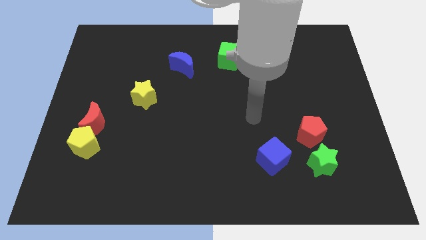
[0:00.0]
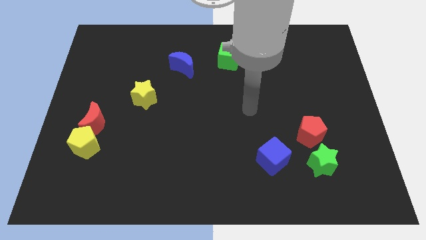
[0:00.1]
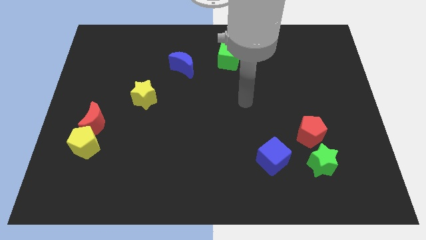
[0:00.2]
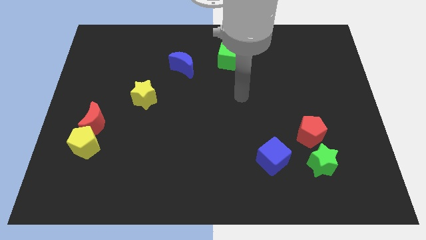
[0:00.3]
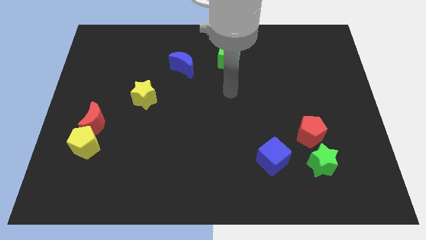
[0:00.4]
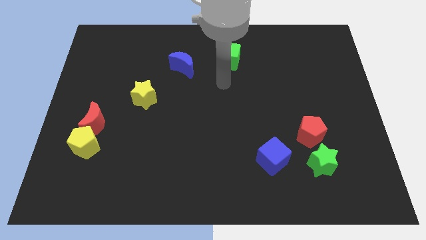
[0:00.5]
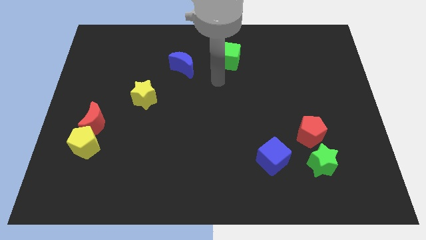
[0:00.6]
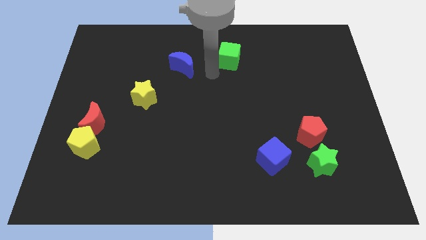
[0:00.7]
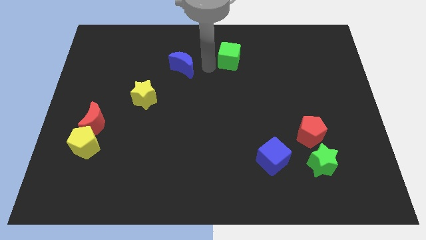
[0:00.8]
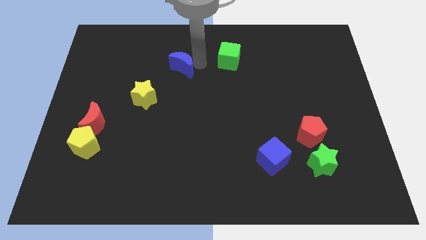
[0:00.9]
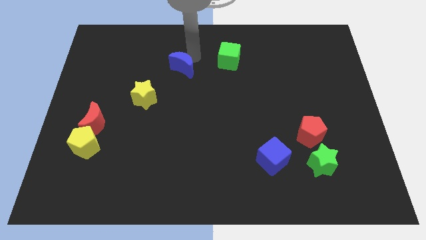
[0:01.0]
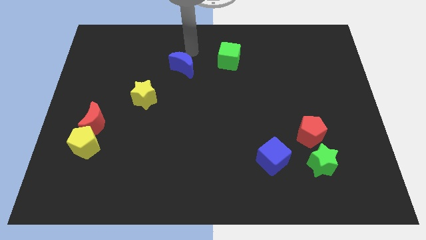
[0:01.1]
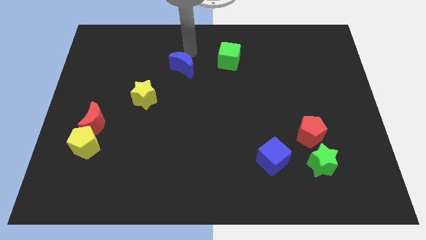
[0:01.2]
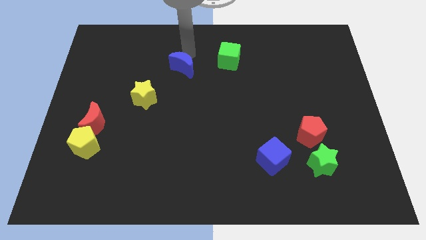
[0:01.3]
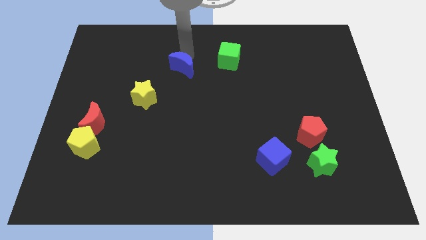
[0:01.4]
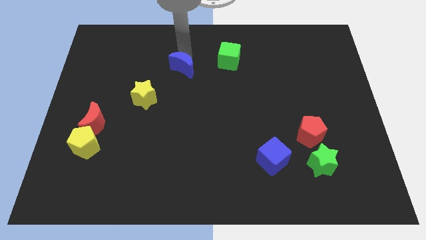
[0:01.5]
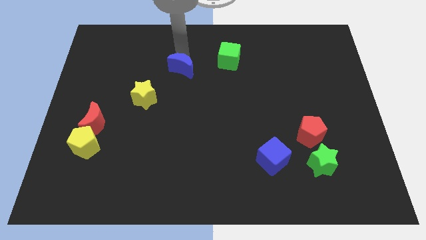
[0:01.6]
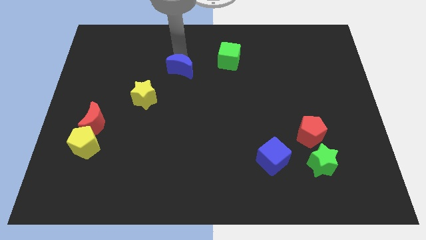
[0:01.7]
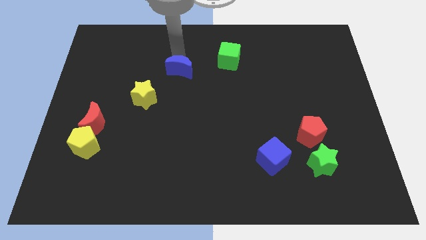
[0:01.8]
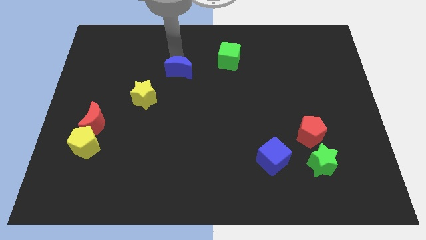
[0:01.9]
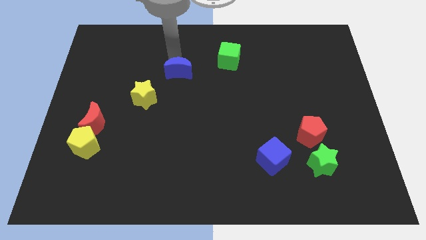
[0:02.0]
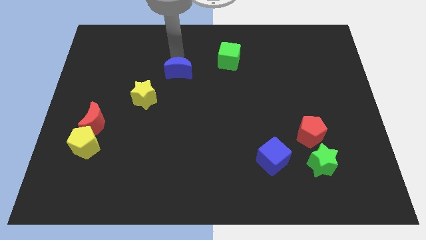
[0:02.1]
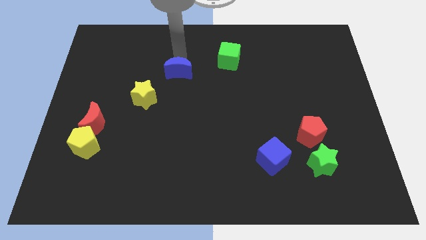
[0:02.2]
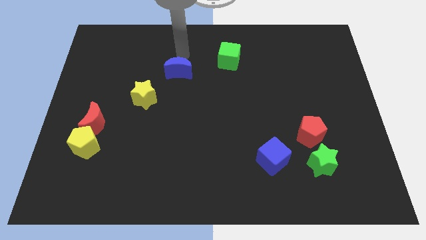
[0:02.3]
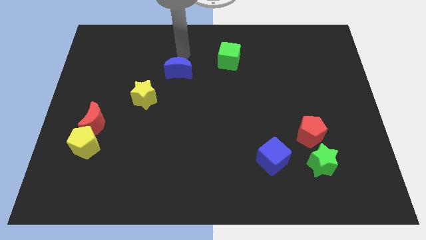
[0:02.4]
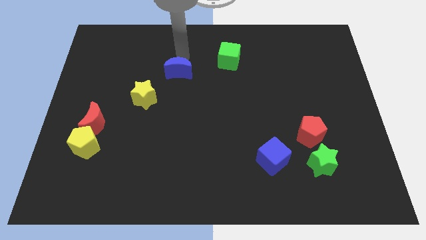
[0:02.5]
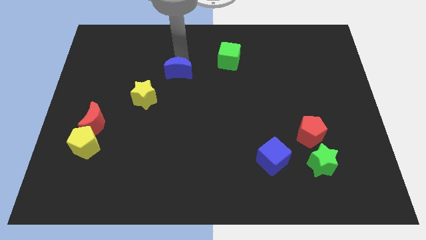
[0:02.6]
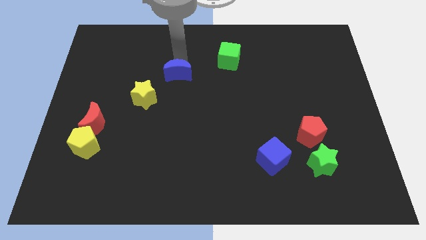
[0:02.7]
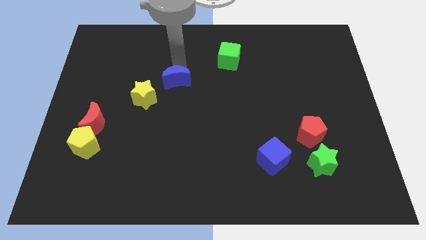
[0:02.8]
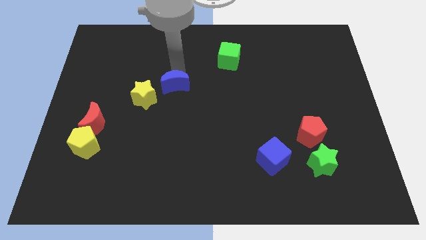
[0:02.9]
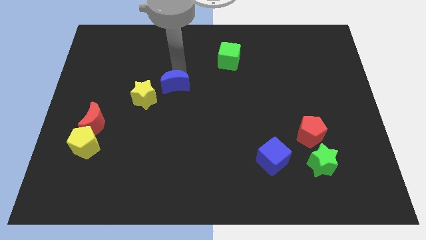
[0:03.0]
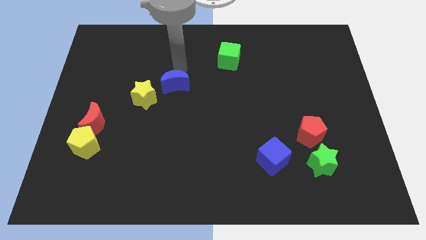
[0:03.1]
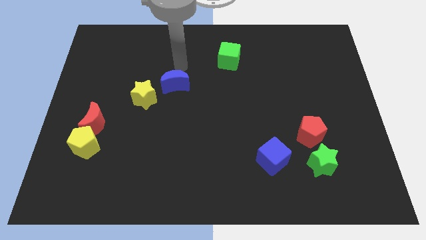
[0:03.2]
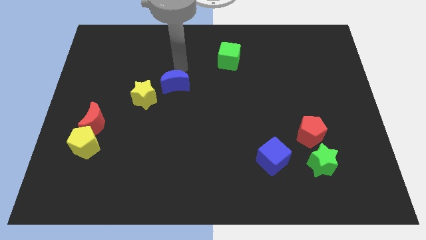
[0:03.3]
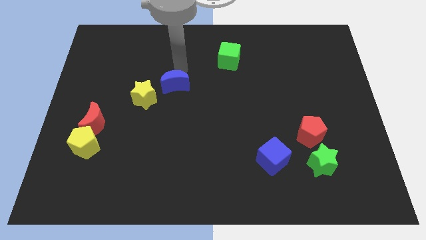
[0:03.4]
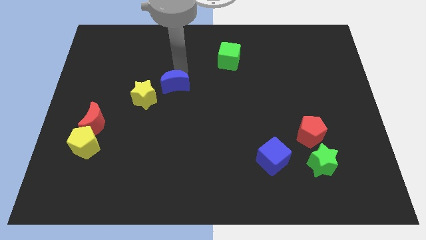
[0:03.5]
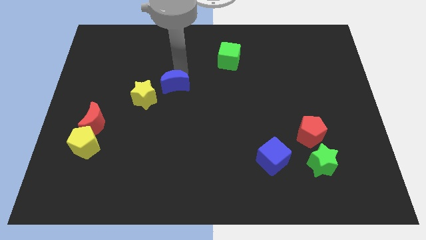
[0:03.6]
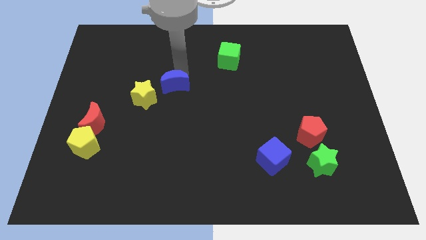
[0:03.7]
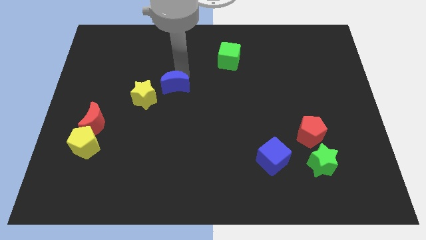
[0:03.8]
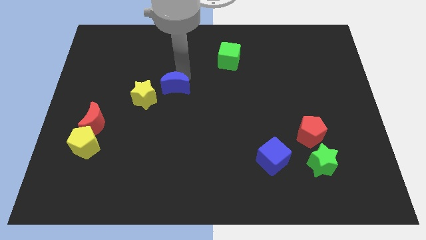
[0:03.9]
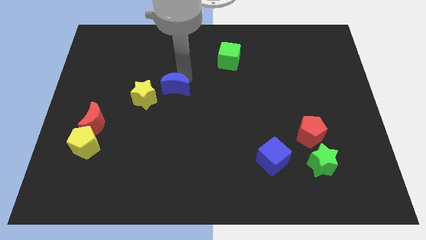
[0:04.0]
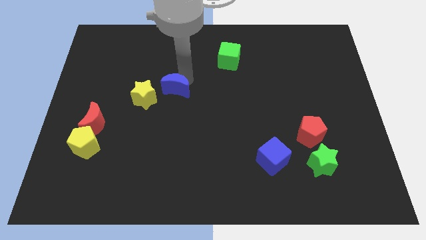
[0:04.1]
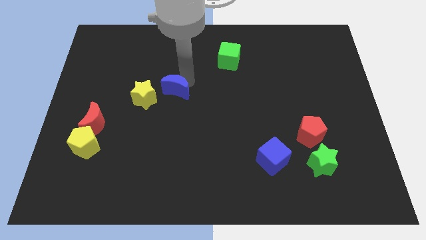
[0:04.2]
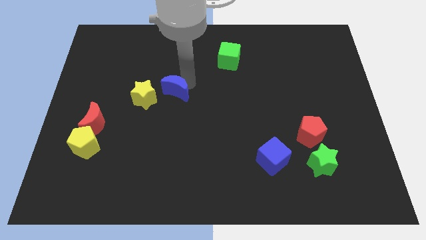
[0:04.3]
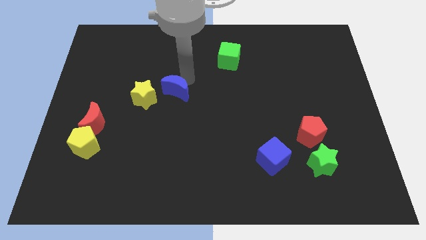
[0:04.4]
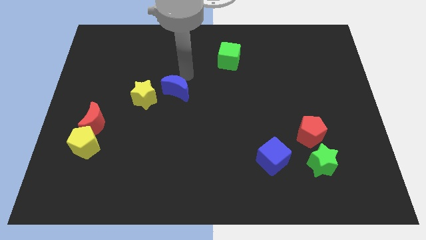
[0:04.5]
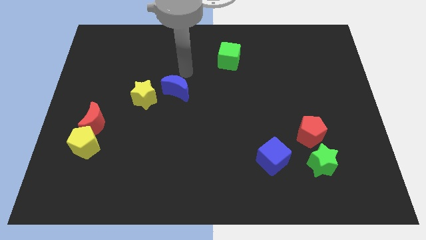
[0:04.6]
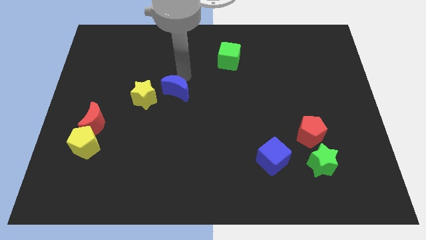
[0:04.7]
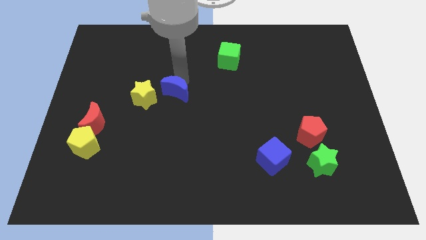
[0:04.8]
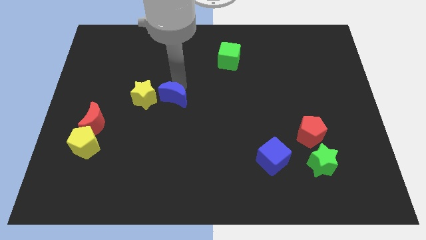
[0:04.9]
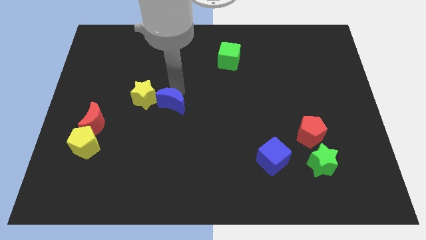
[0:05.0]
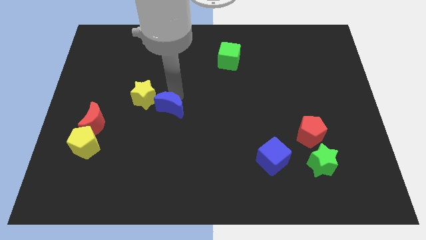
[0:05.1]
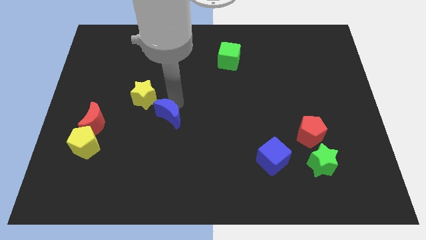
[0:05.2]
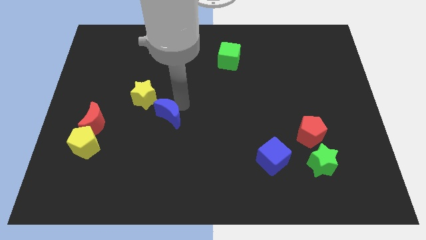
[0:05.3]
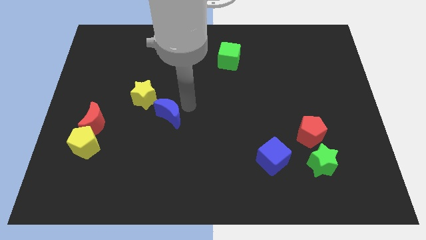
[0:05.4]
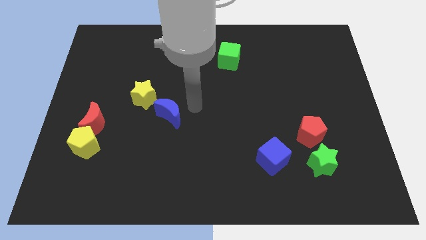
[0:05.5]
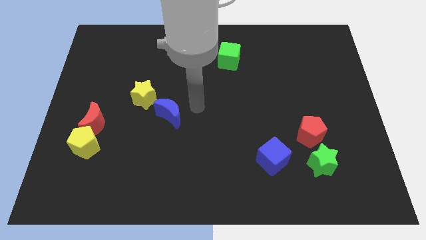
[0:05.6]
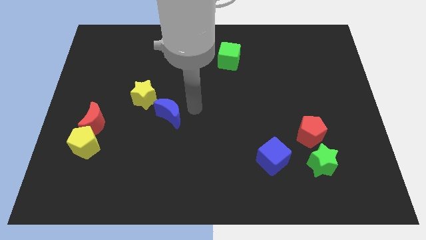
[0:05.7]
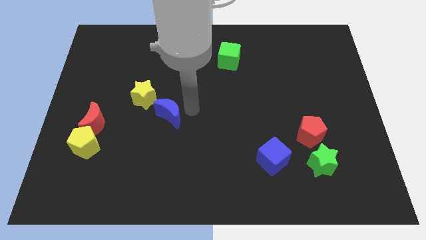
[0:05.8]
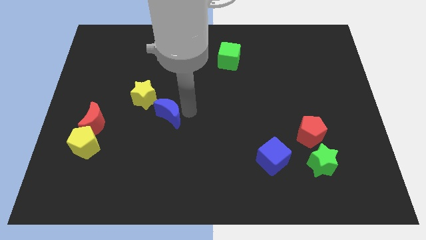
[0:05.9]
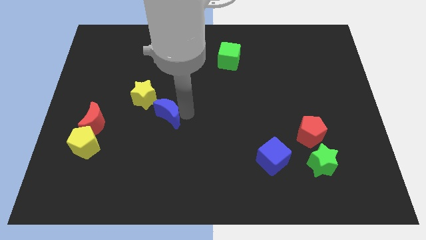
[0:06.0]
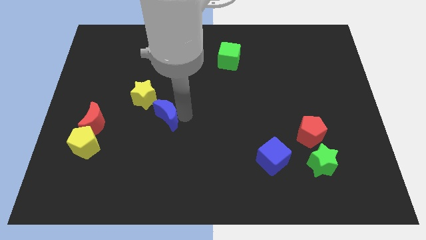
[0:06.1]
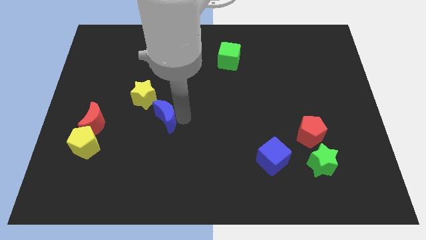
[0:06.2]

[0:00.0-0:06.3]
put the blue moon right of the red moon
